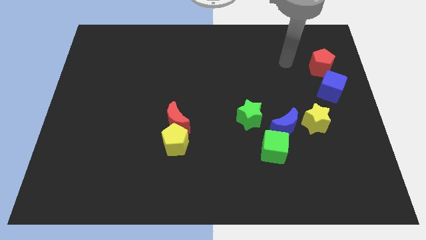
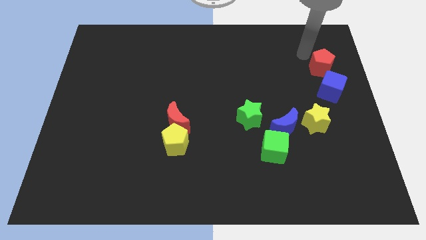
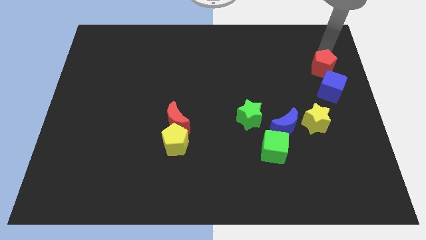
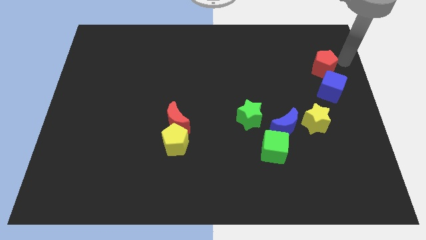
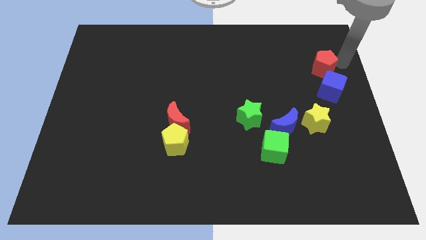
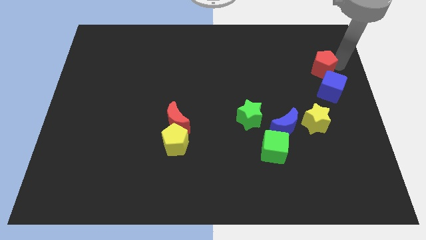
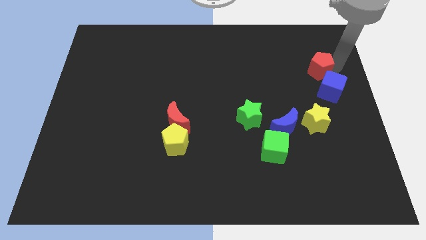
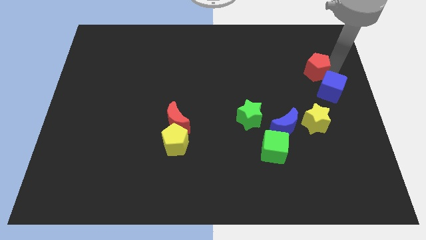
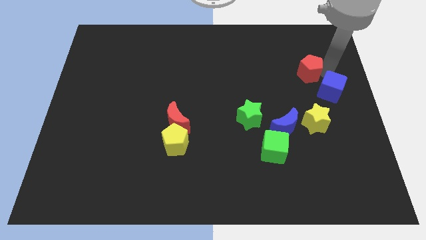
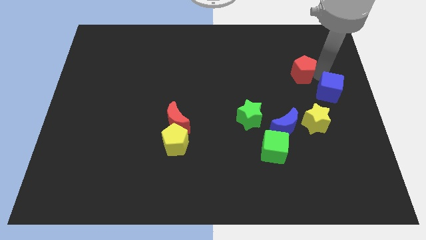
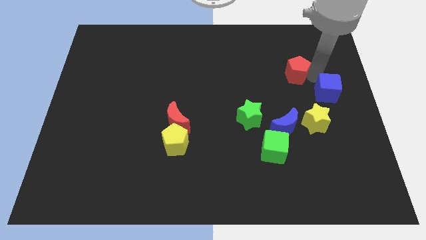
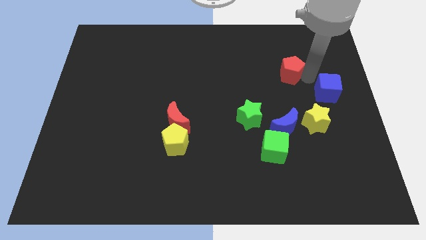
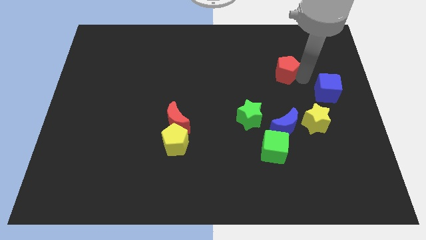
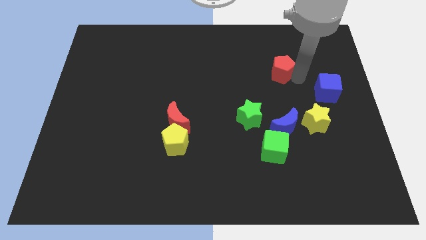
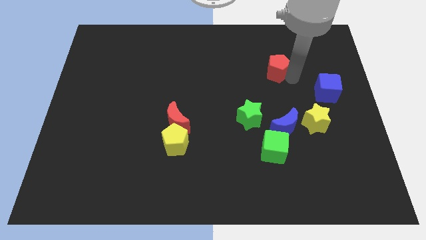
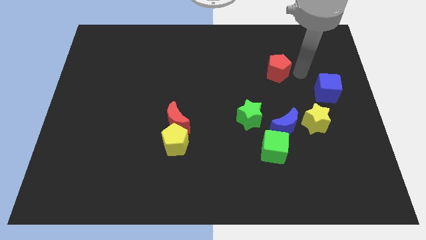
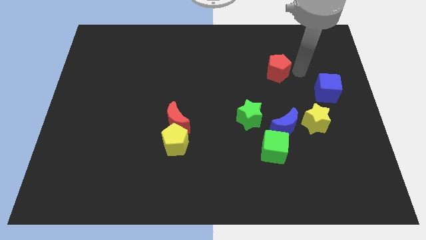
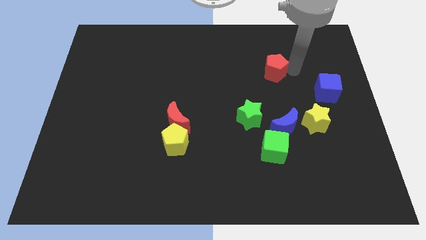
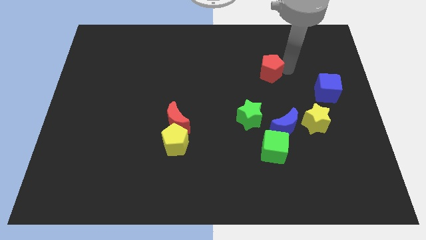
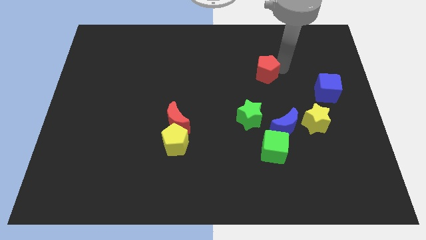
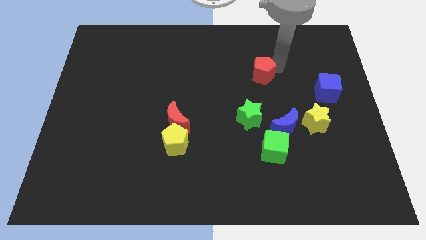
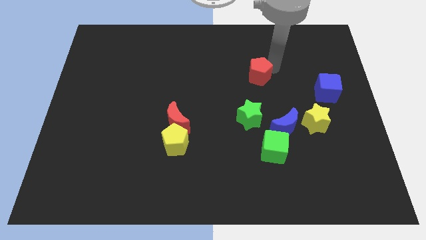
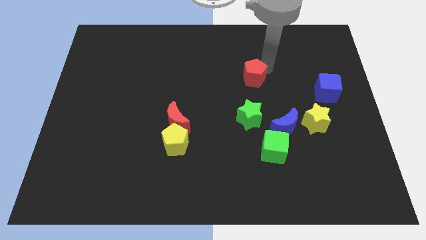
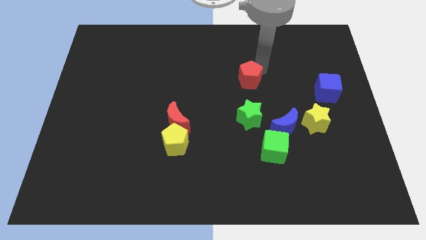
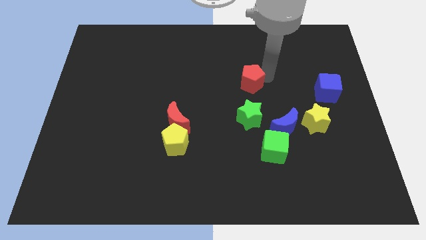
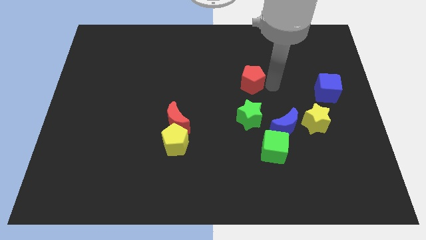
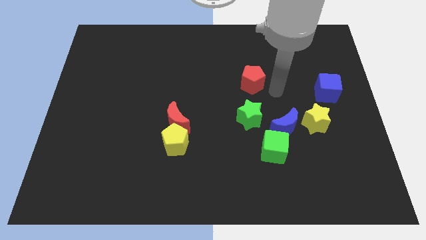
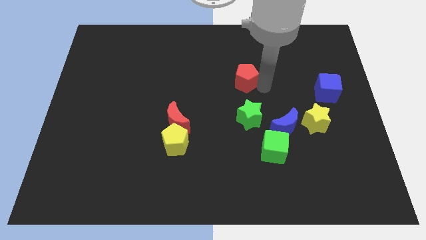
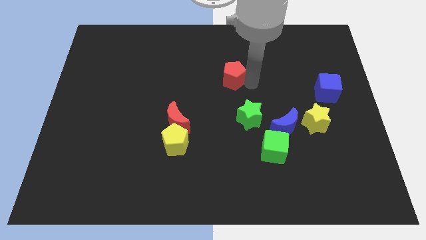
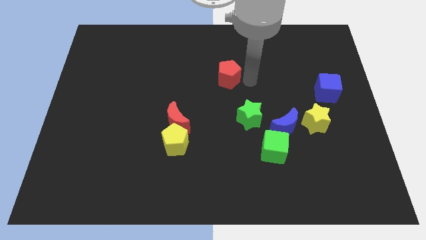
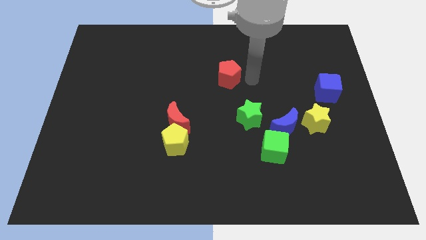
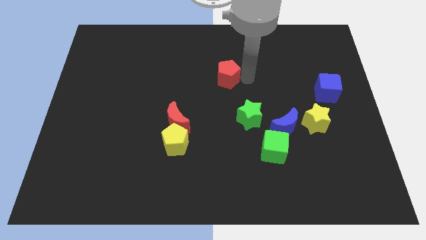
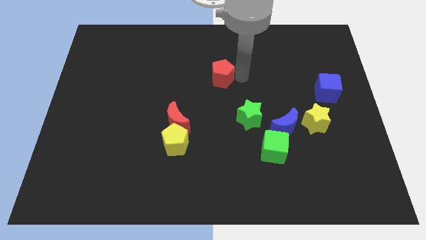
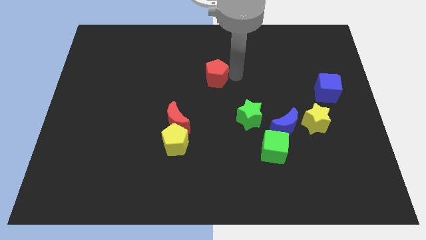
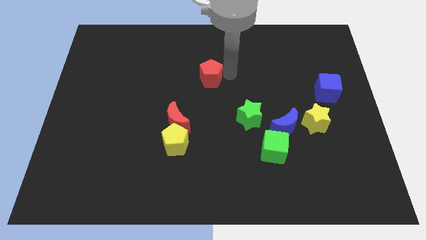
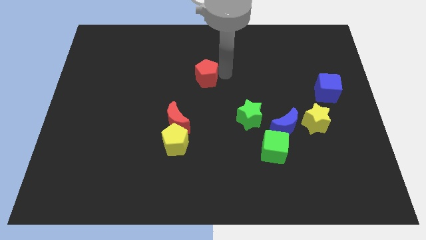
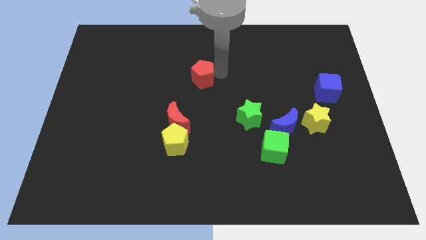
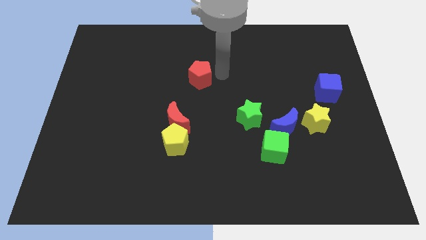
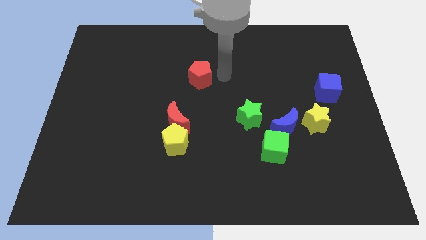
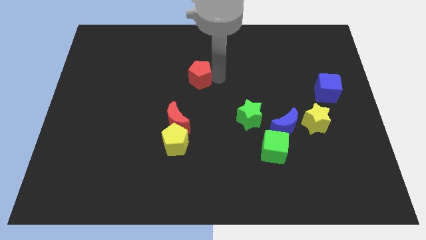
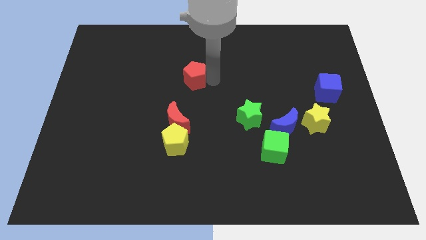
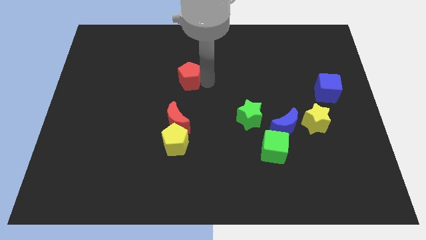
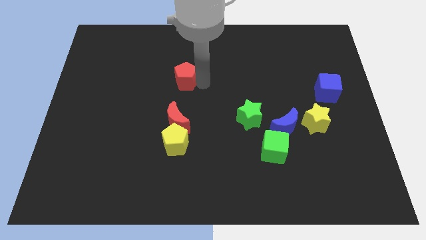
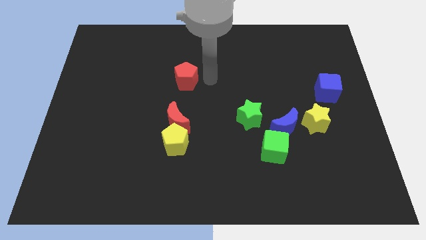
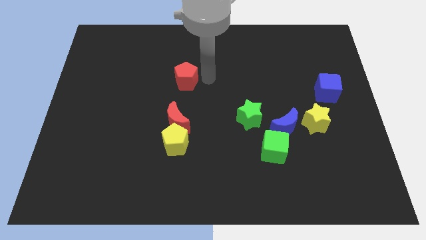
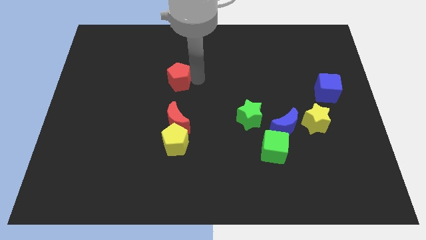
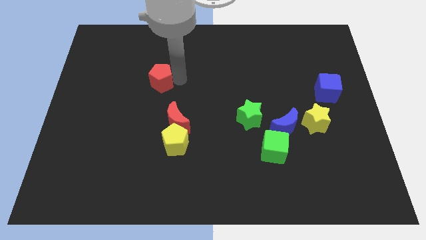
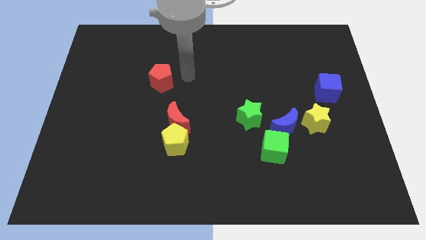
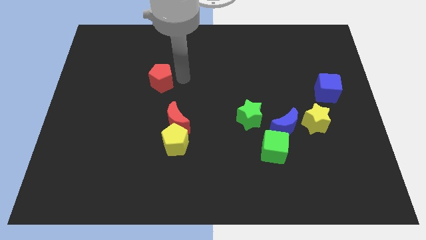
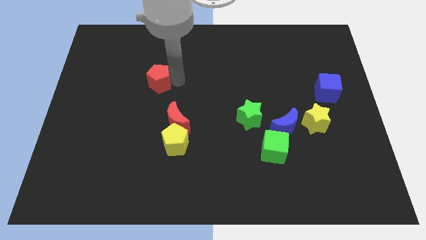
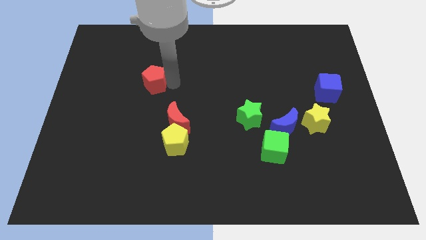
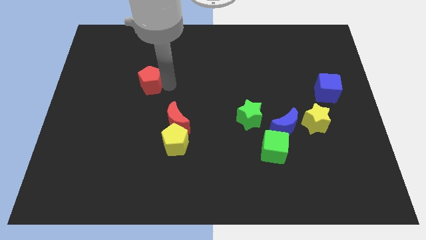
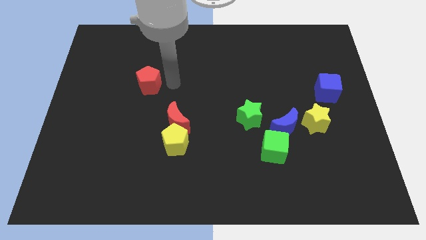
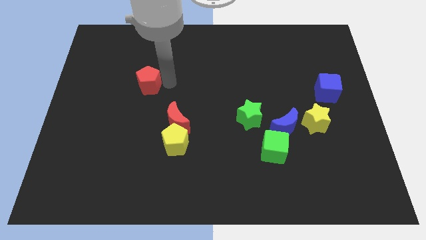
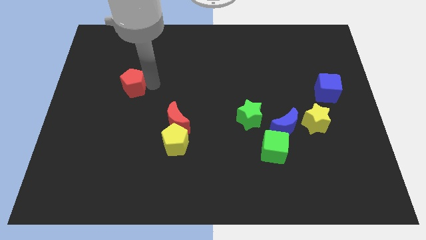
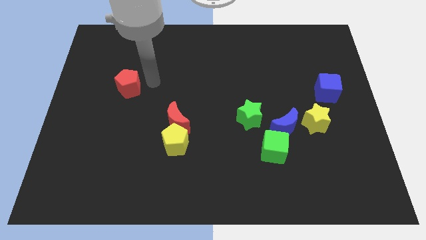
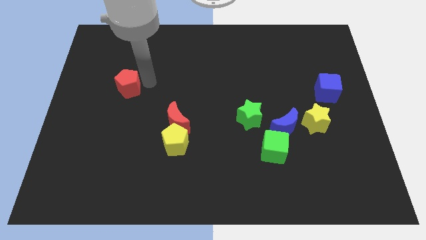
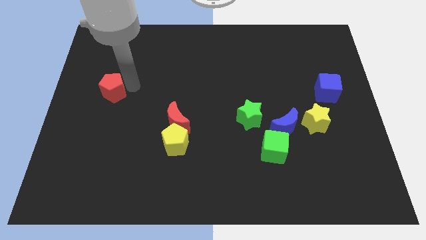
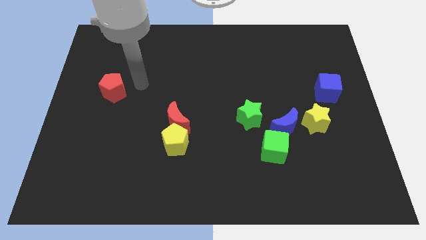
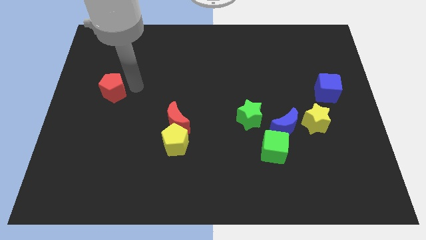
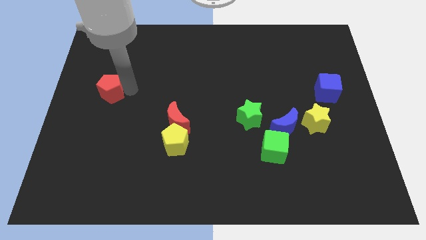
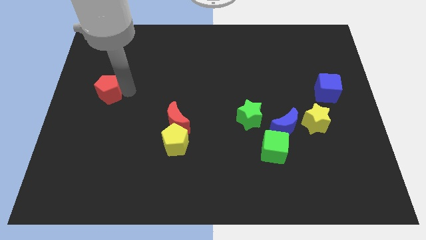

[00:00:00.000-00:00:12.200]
slide the red pentagon to the left side of the board
